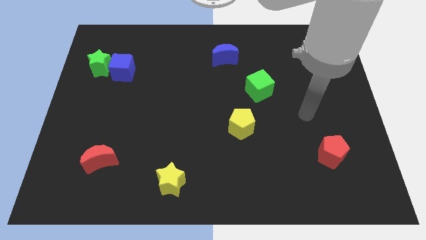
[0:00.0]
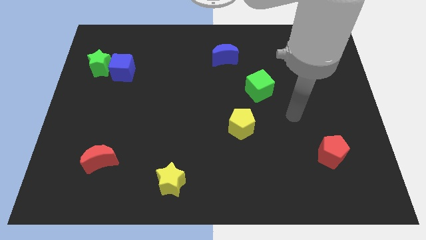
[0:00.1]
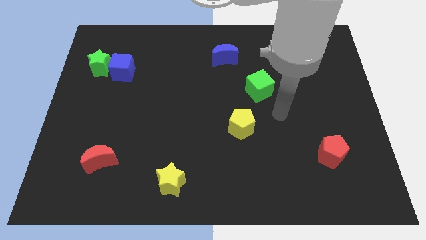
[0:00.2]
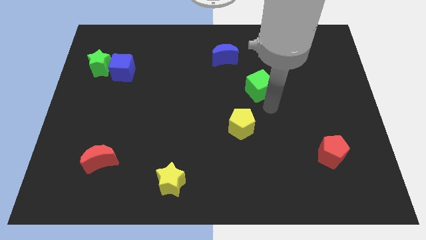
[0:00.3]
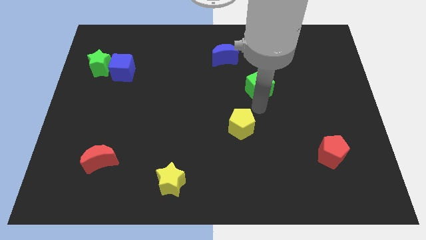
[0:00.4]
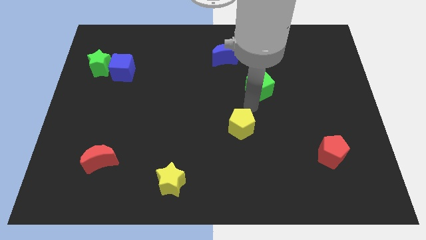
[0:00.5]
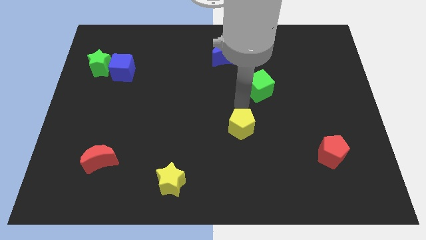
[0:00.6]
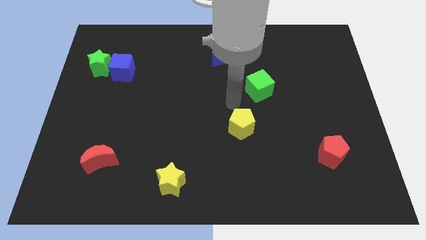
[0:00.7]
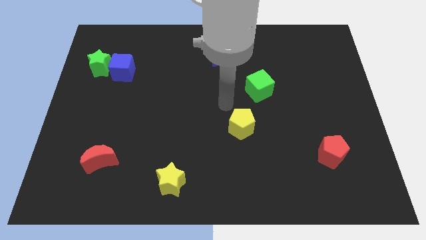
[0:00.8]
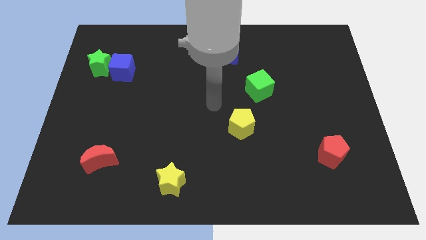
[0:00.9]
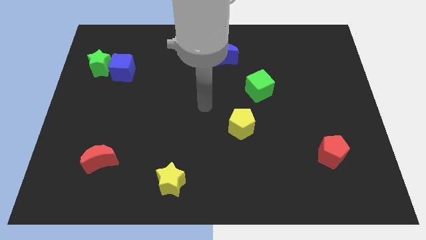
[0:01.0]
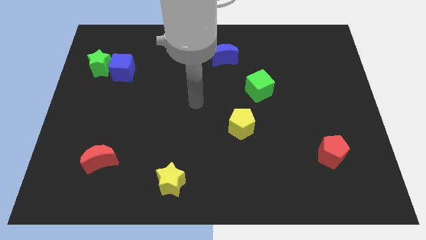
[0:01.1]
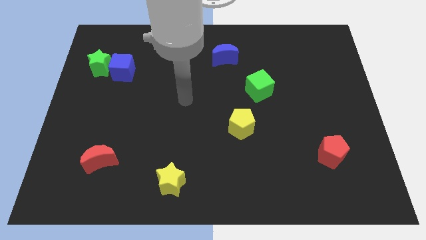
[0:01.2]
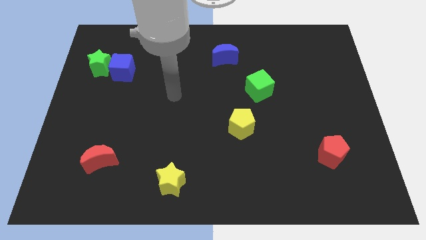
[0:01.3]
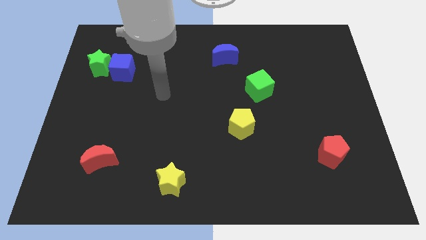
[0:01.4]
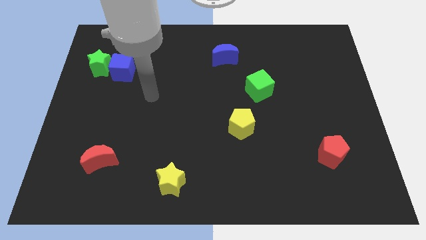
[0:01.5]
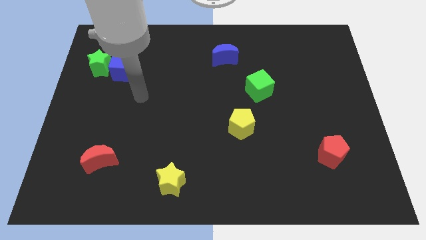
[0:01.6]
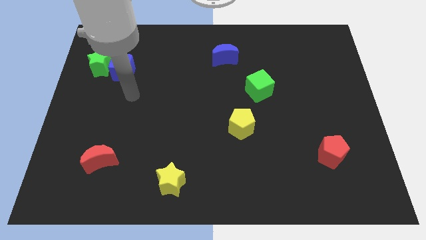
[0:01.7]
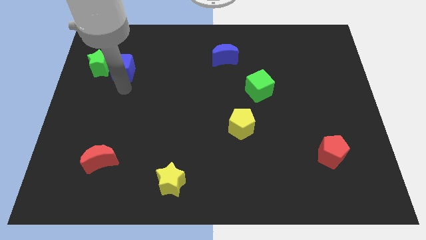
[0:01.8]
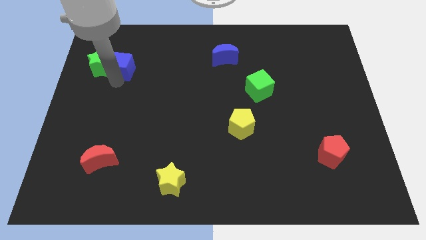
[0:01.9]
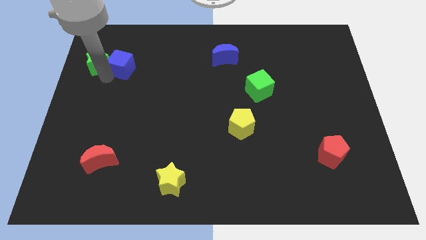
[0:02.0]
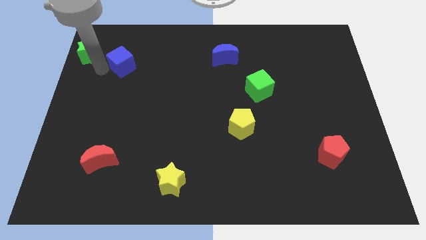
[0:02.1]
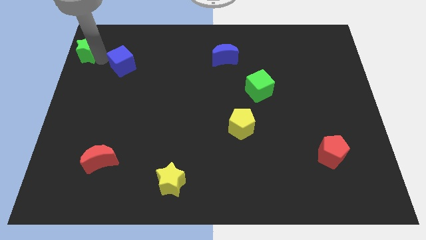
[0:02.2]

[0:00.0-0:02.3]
move the blue cube away from the green star

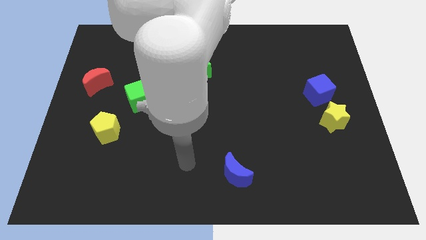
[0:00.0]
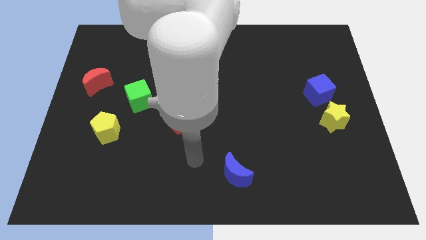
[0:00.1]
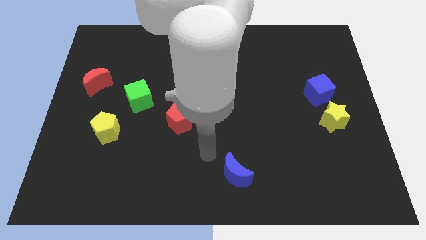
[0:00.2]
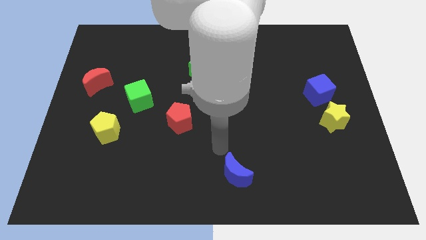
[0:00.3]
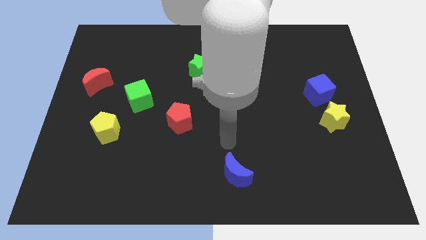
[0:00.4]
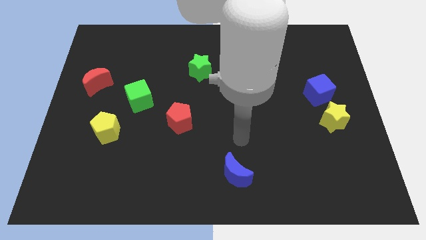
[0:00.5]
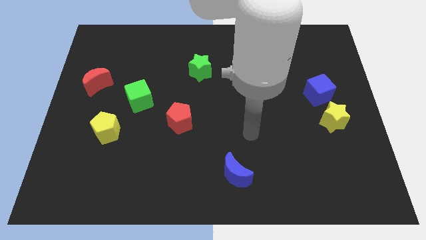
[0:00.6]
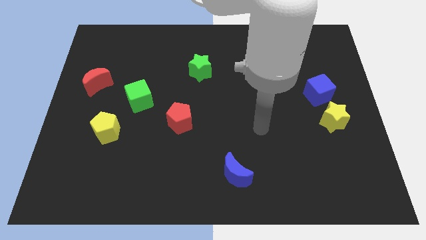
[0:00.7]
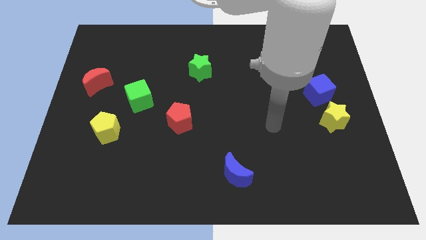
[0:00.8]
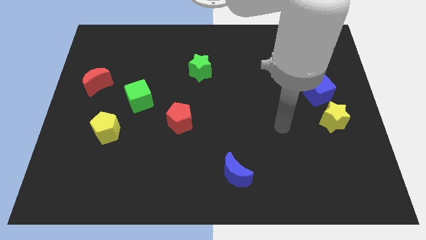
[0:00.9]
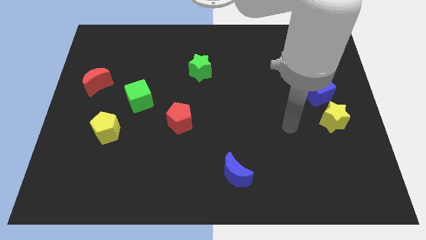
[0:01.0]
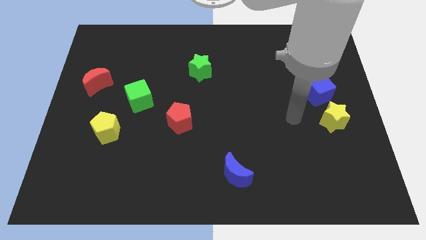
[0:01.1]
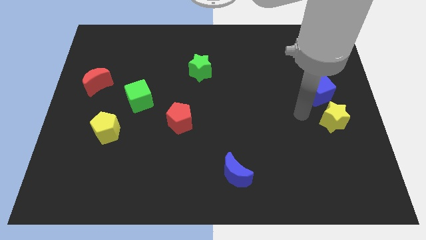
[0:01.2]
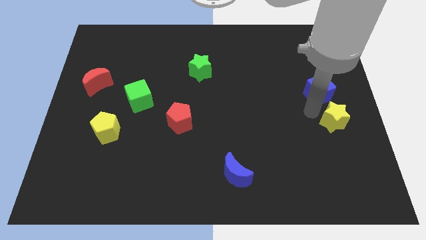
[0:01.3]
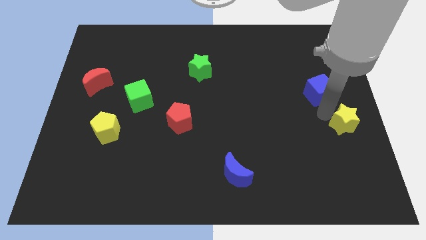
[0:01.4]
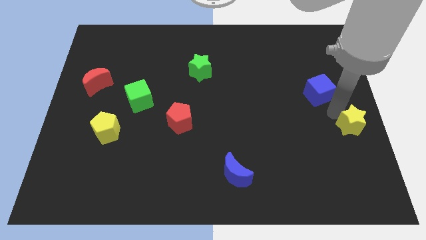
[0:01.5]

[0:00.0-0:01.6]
pull the blue cube apart from the yellow star

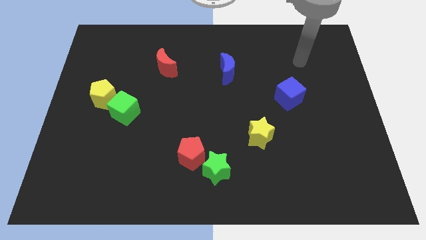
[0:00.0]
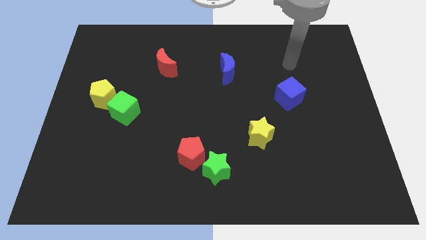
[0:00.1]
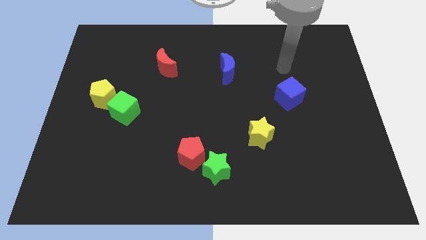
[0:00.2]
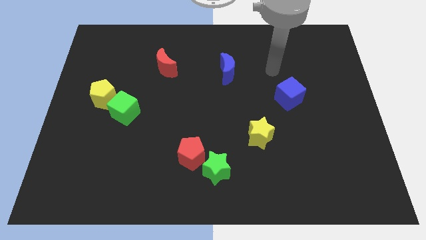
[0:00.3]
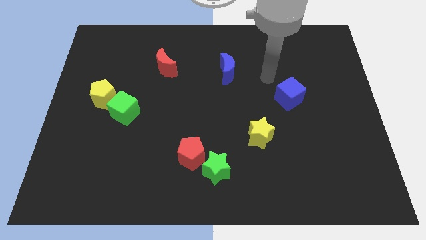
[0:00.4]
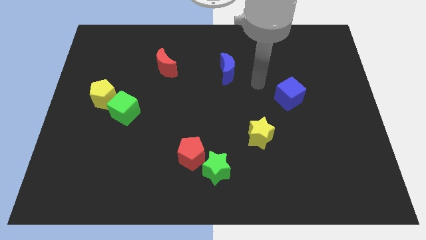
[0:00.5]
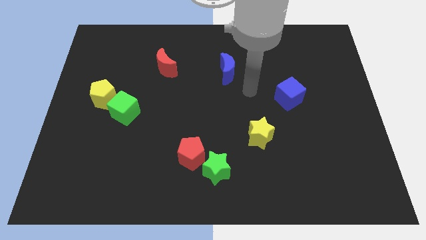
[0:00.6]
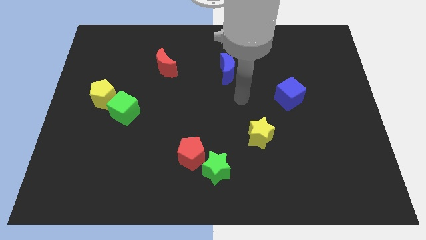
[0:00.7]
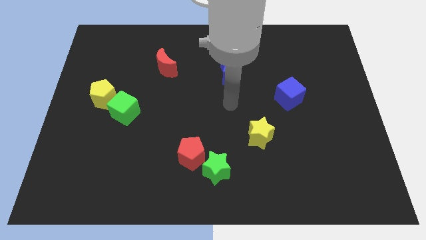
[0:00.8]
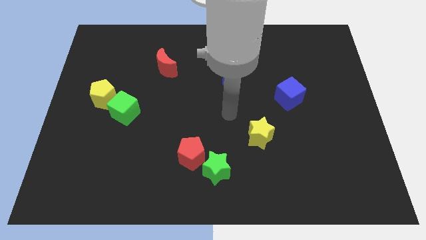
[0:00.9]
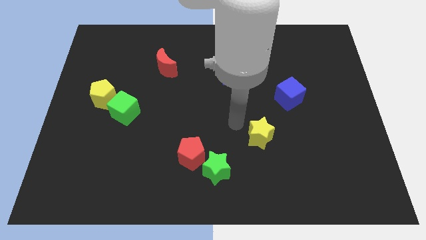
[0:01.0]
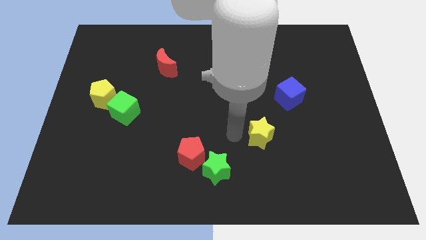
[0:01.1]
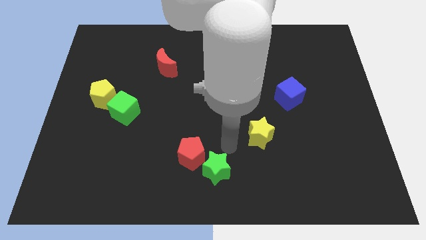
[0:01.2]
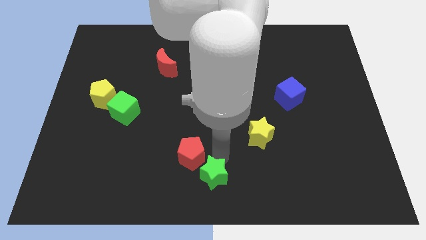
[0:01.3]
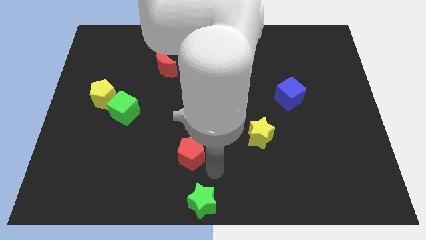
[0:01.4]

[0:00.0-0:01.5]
separate the red pentagon from the green star

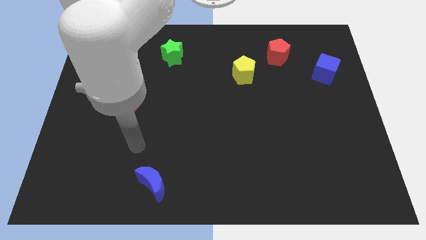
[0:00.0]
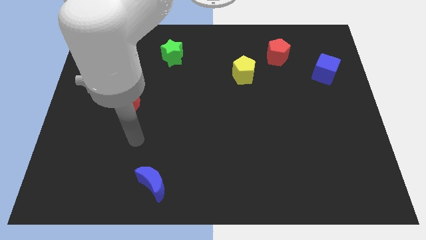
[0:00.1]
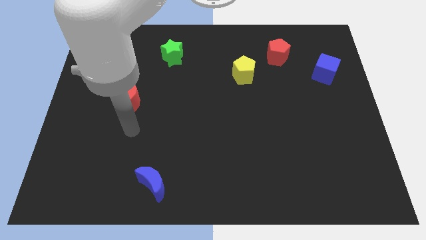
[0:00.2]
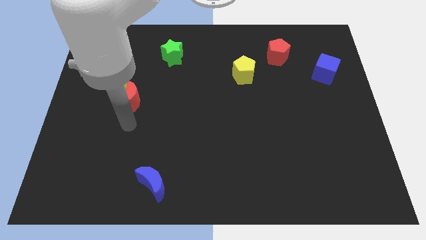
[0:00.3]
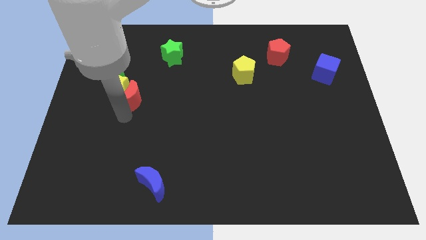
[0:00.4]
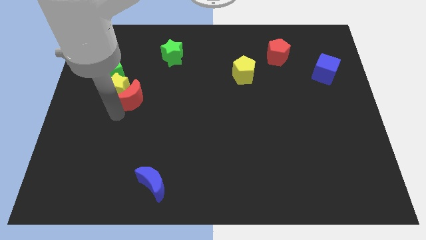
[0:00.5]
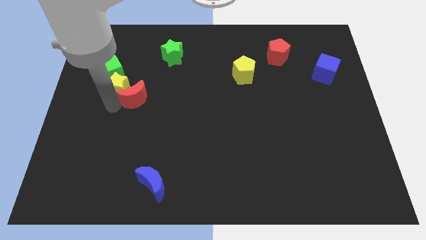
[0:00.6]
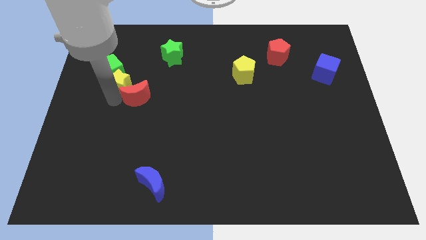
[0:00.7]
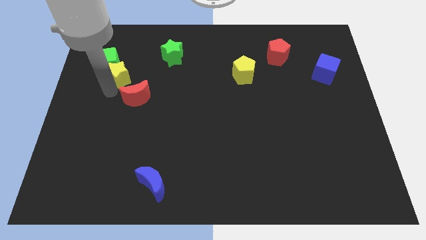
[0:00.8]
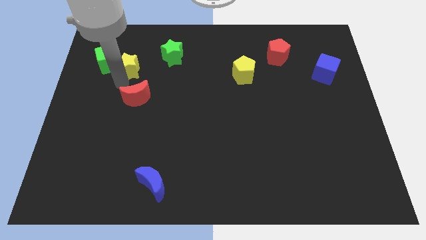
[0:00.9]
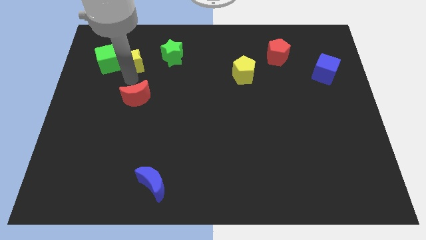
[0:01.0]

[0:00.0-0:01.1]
pull the red moon apart from the yellow star

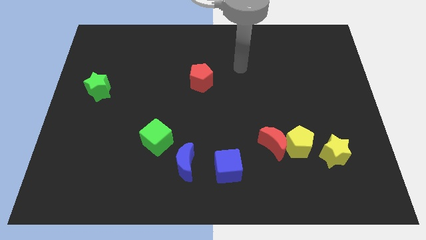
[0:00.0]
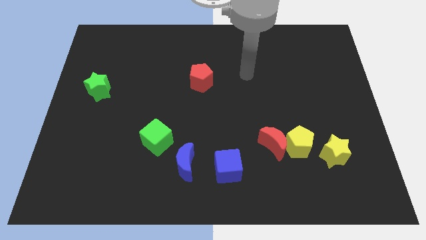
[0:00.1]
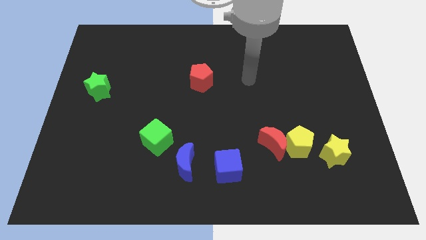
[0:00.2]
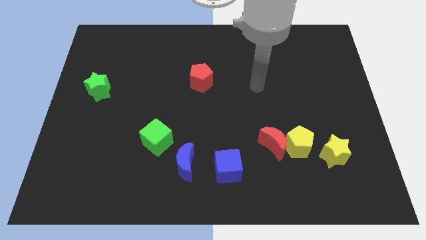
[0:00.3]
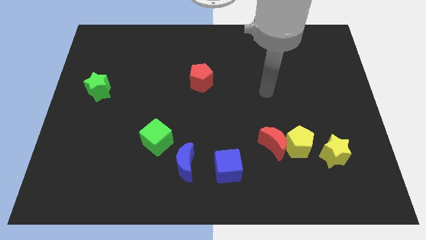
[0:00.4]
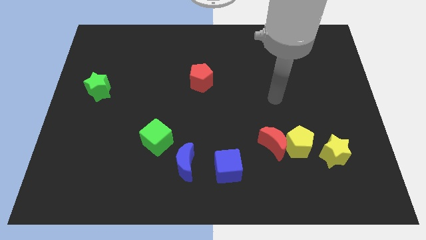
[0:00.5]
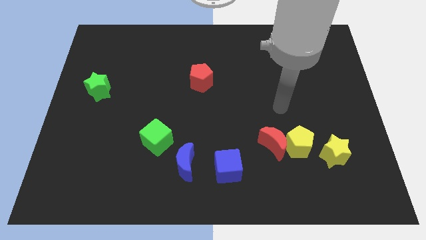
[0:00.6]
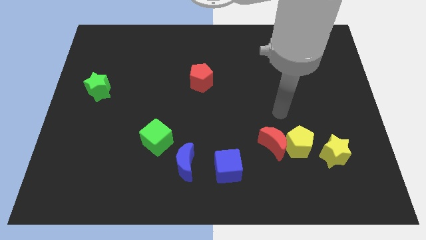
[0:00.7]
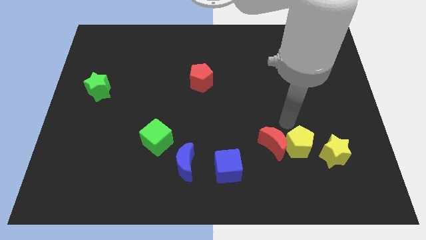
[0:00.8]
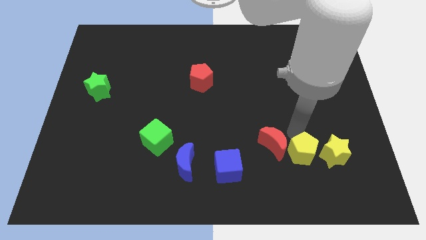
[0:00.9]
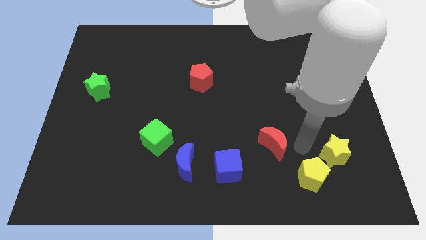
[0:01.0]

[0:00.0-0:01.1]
pull the red moon apart from the yellow pentagon

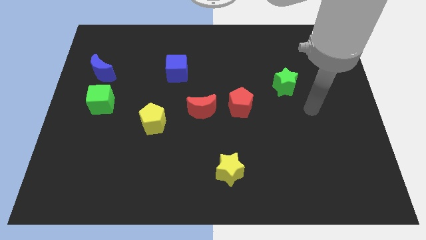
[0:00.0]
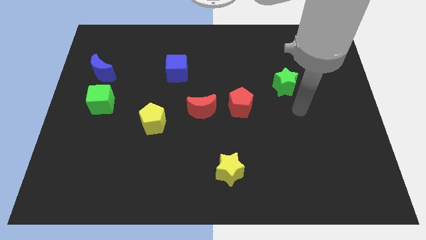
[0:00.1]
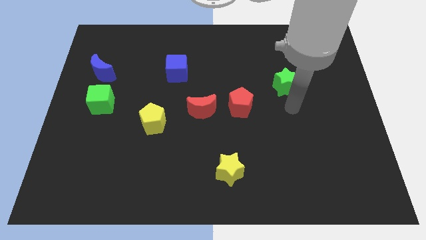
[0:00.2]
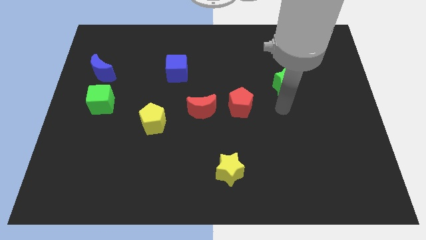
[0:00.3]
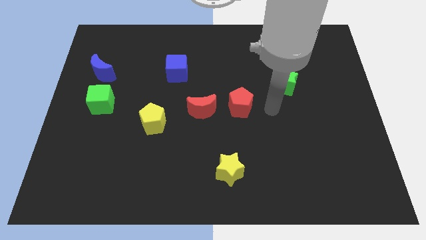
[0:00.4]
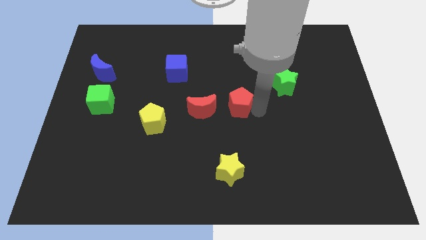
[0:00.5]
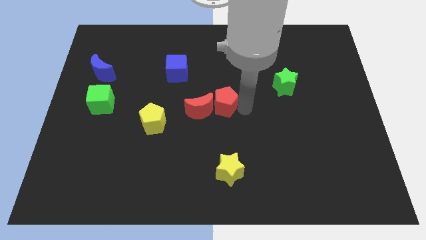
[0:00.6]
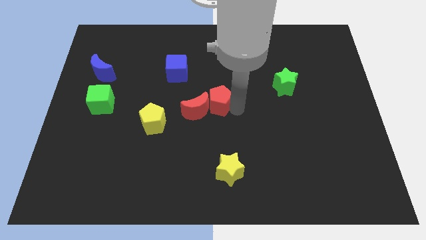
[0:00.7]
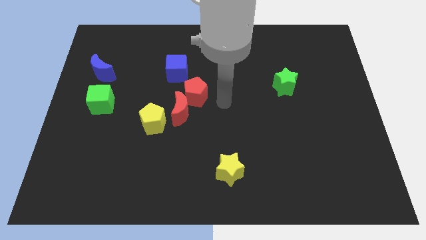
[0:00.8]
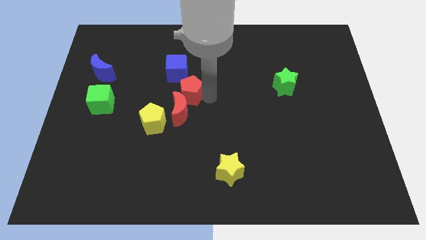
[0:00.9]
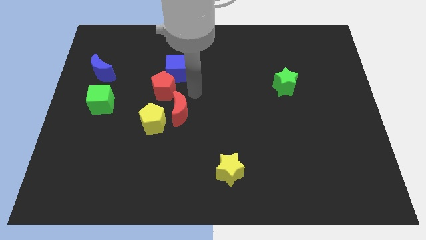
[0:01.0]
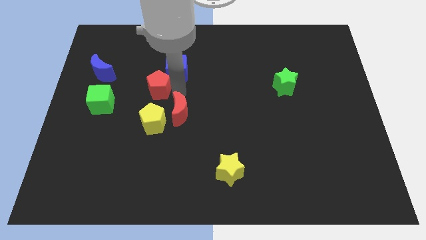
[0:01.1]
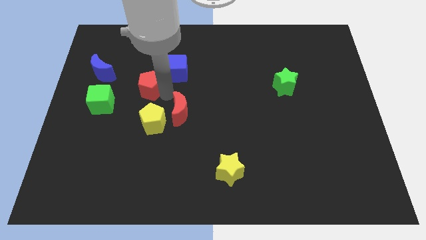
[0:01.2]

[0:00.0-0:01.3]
pull the red moon apart from the red pentagon

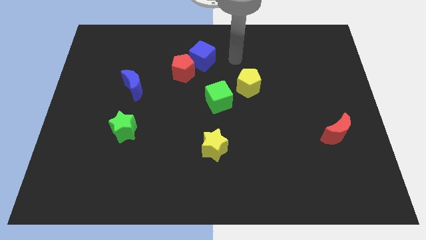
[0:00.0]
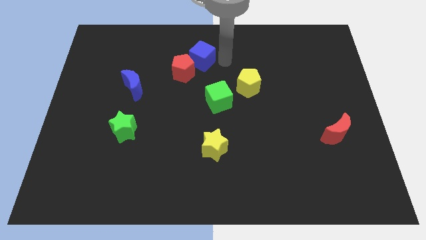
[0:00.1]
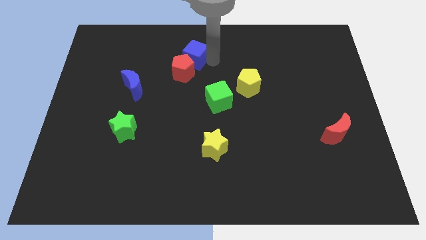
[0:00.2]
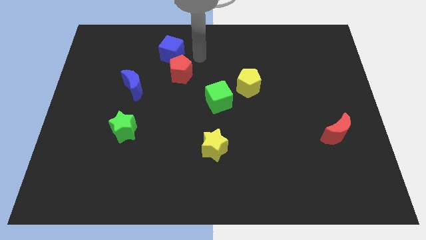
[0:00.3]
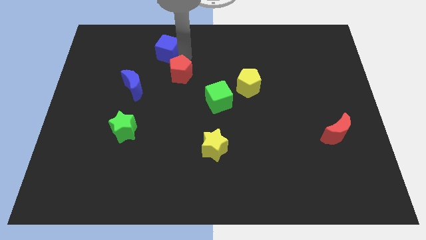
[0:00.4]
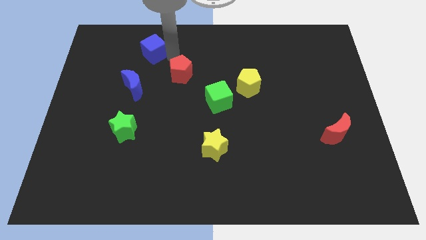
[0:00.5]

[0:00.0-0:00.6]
move the red pentagon away from the blue cube
